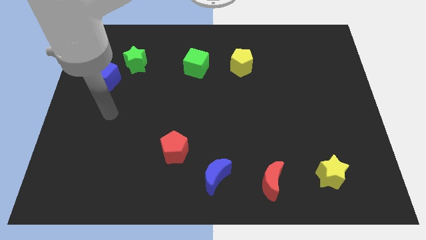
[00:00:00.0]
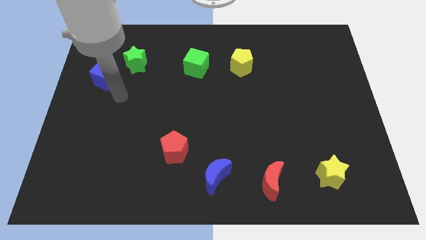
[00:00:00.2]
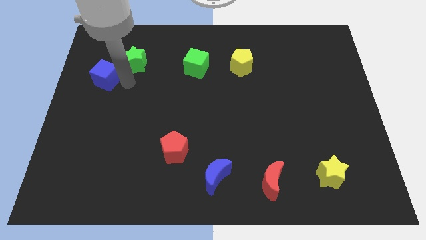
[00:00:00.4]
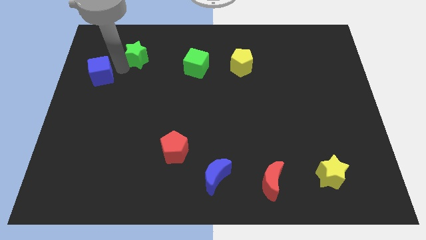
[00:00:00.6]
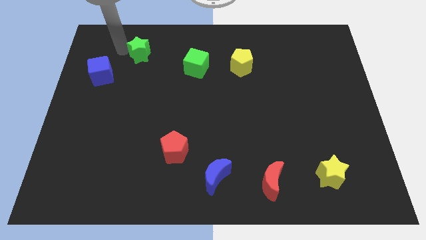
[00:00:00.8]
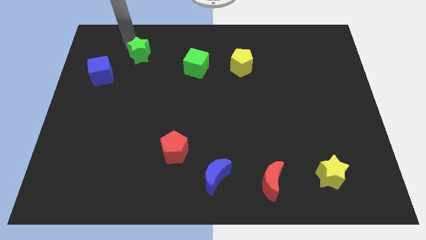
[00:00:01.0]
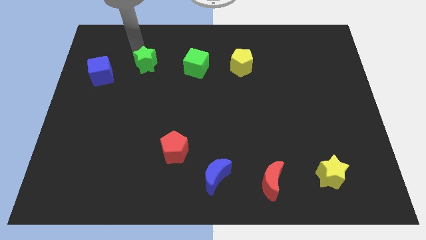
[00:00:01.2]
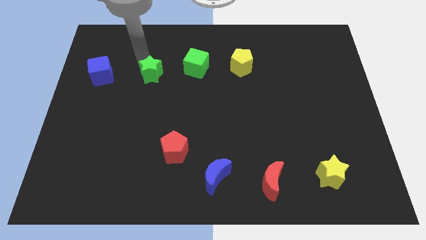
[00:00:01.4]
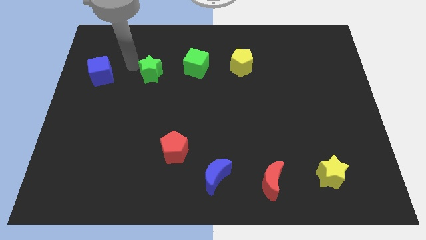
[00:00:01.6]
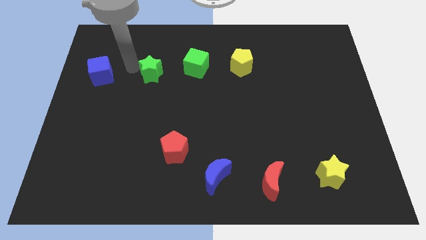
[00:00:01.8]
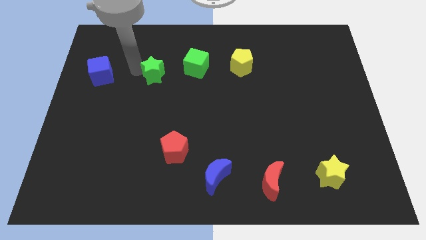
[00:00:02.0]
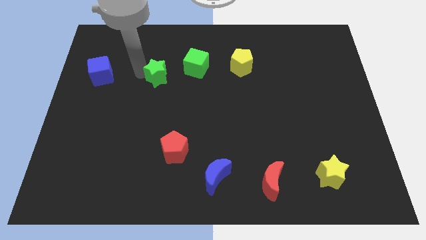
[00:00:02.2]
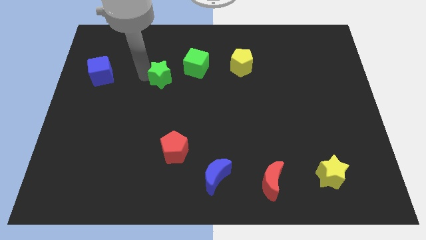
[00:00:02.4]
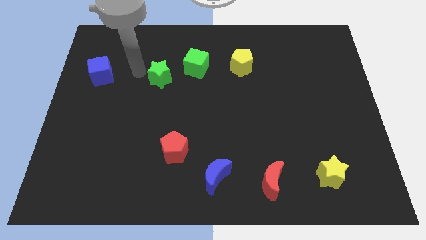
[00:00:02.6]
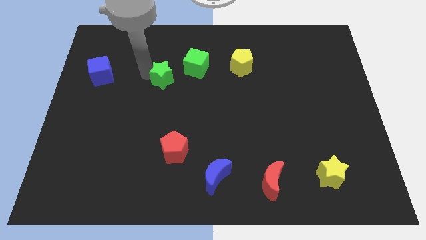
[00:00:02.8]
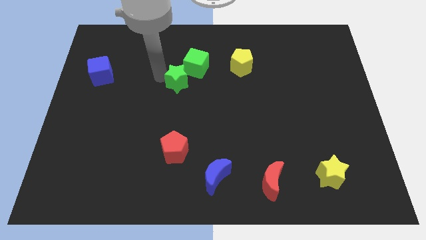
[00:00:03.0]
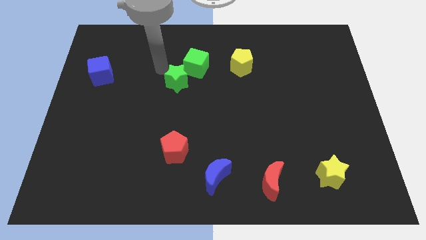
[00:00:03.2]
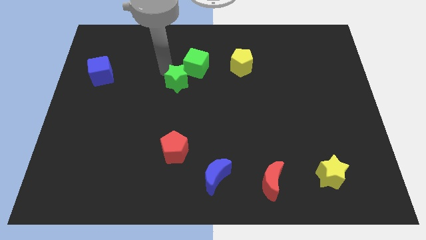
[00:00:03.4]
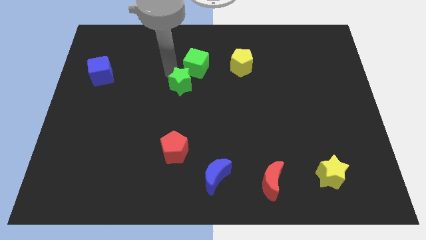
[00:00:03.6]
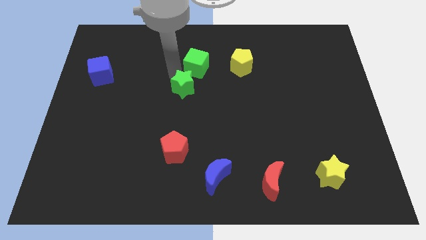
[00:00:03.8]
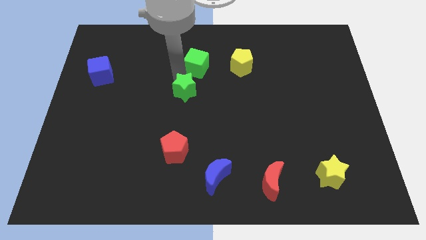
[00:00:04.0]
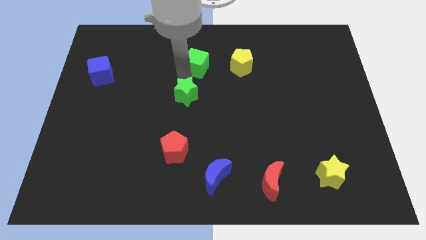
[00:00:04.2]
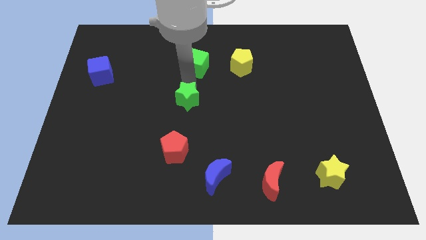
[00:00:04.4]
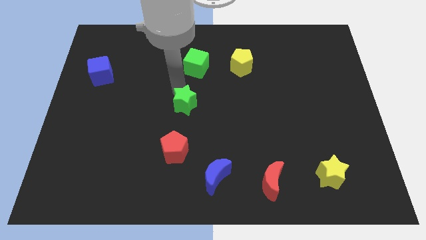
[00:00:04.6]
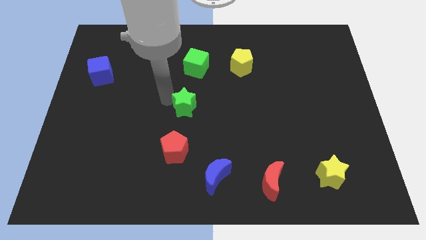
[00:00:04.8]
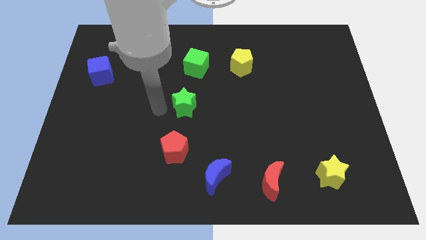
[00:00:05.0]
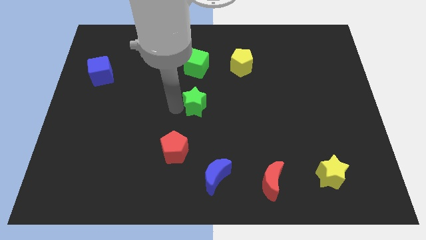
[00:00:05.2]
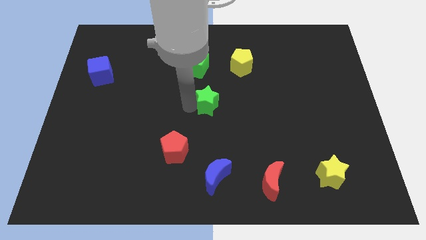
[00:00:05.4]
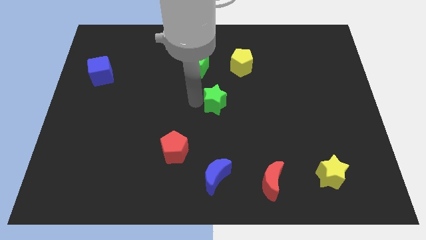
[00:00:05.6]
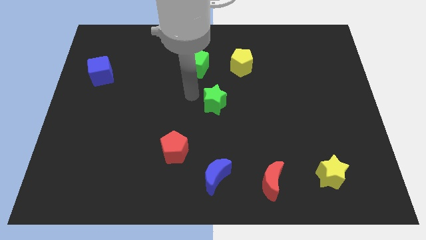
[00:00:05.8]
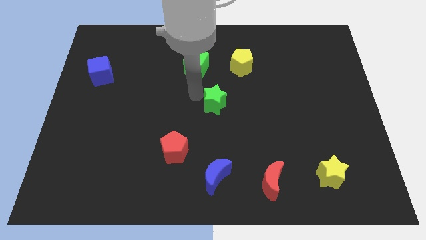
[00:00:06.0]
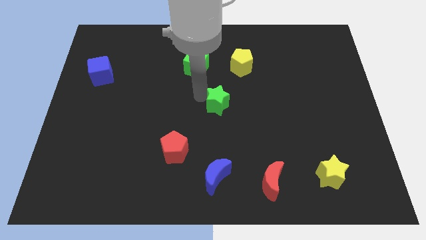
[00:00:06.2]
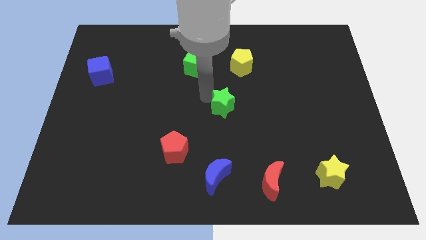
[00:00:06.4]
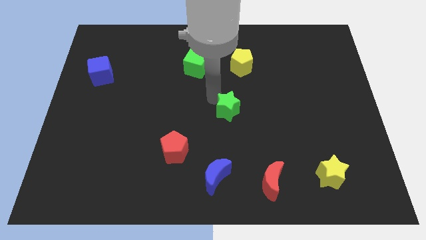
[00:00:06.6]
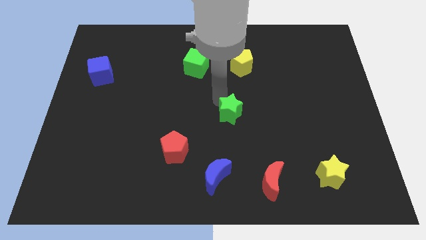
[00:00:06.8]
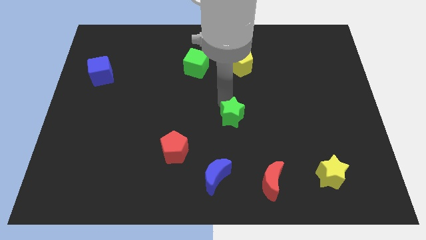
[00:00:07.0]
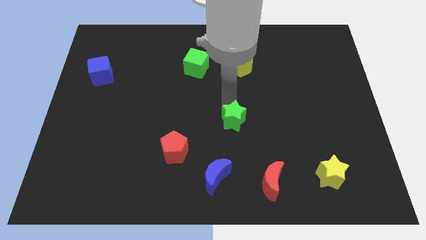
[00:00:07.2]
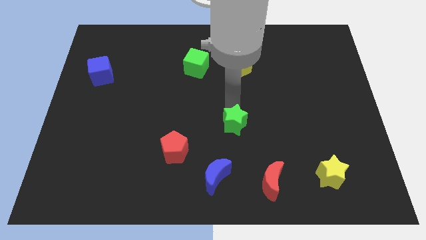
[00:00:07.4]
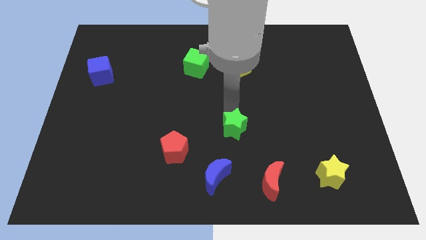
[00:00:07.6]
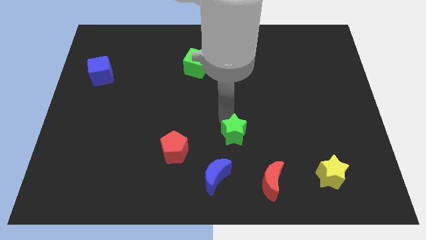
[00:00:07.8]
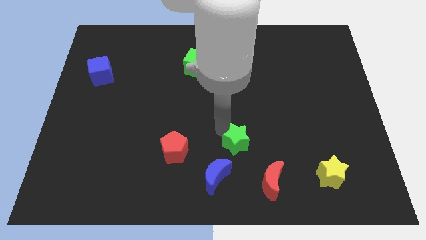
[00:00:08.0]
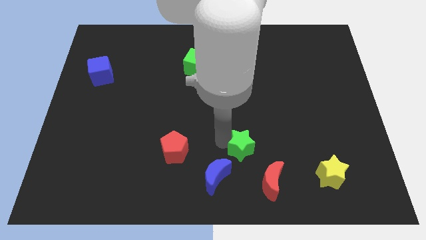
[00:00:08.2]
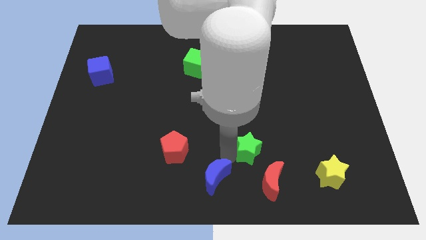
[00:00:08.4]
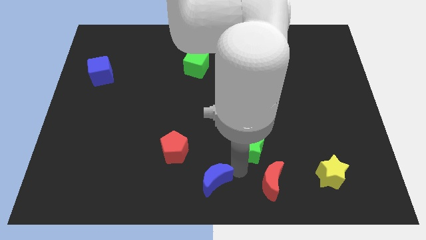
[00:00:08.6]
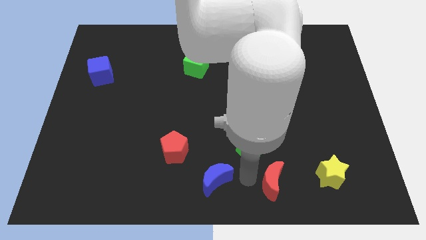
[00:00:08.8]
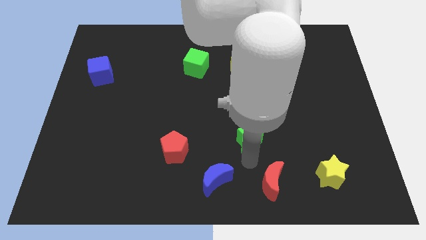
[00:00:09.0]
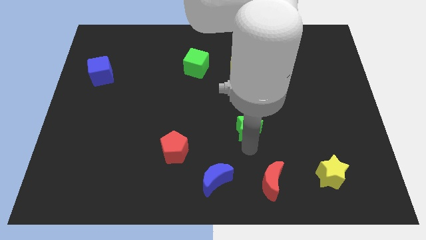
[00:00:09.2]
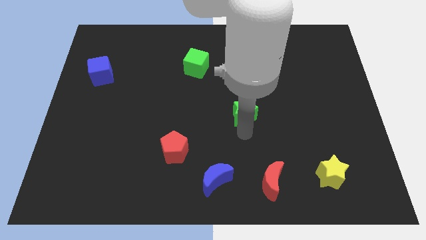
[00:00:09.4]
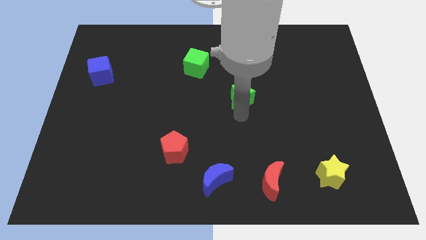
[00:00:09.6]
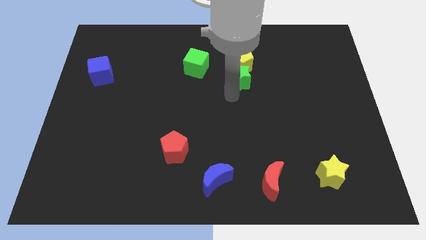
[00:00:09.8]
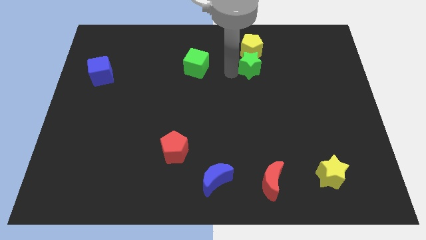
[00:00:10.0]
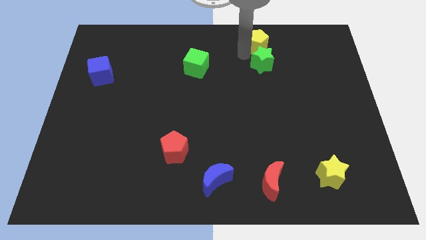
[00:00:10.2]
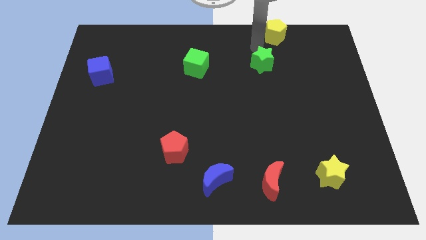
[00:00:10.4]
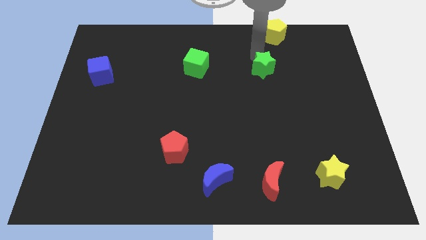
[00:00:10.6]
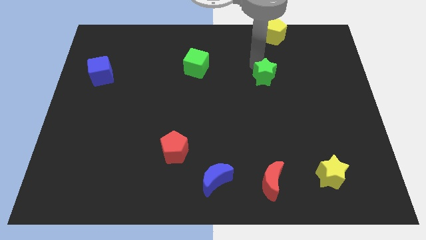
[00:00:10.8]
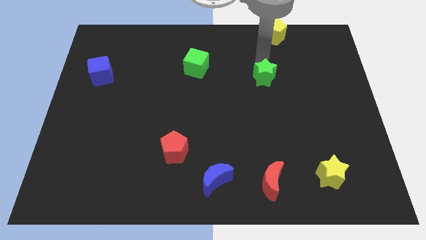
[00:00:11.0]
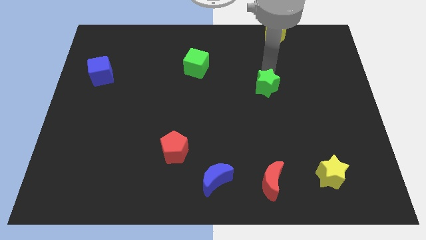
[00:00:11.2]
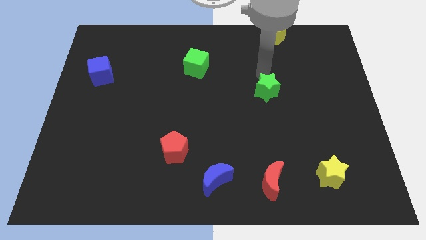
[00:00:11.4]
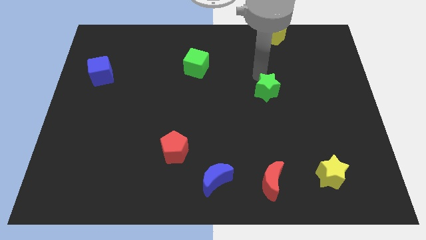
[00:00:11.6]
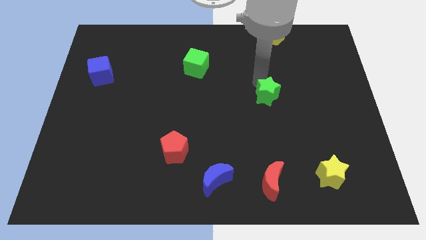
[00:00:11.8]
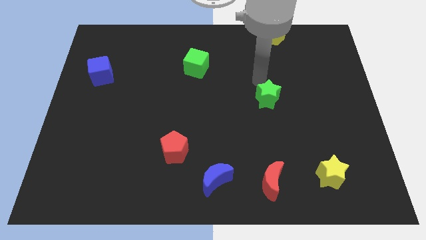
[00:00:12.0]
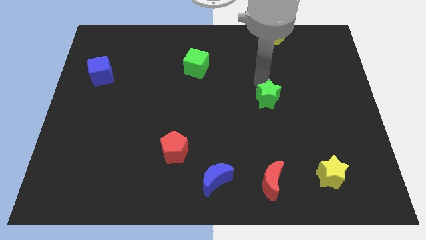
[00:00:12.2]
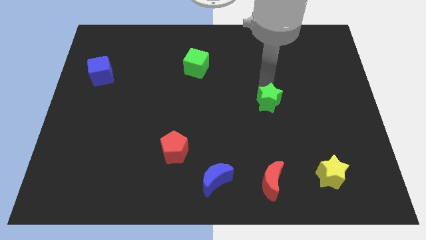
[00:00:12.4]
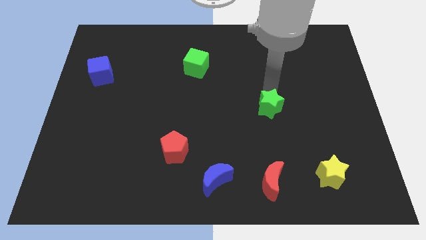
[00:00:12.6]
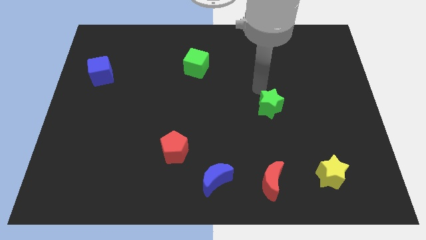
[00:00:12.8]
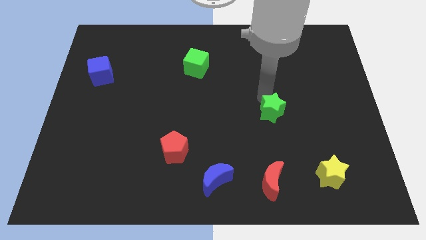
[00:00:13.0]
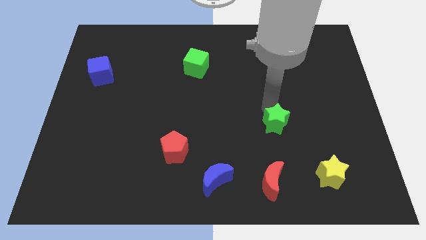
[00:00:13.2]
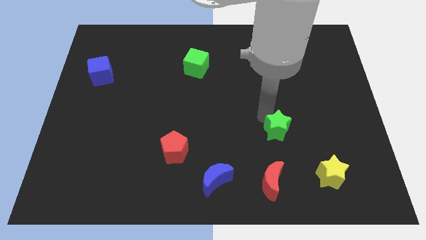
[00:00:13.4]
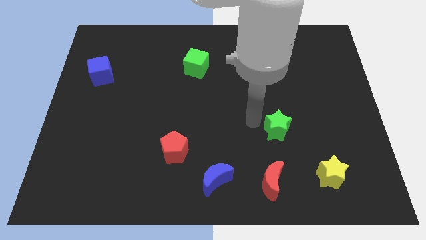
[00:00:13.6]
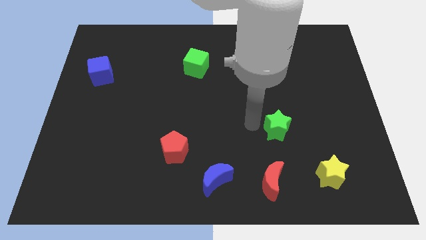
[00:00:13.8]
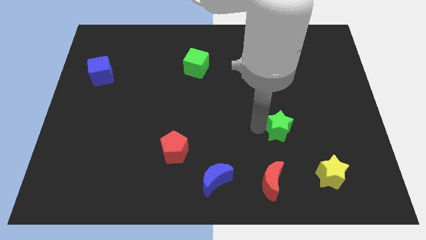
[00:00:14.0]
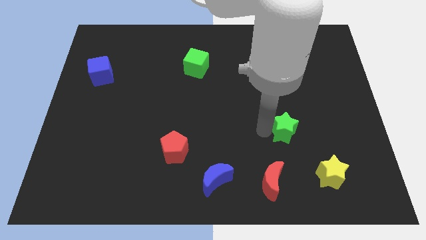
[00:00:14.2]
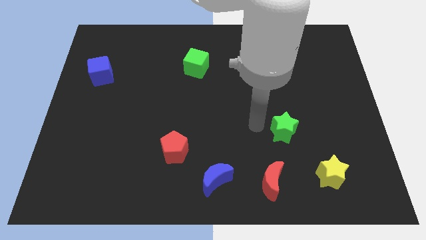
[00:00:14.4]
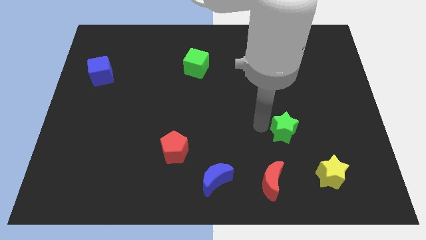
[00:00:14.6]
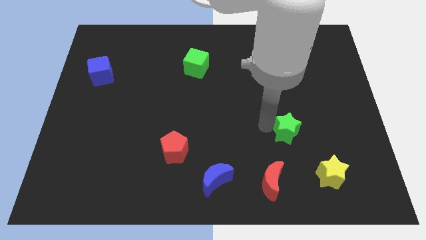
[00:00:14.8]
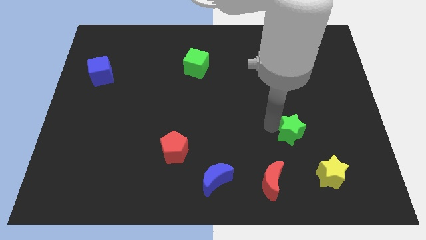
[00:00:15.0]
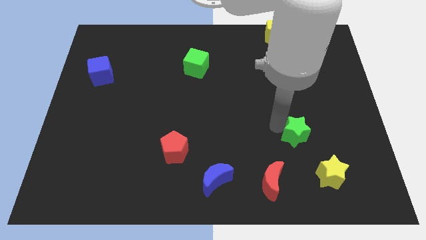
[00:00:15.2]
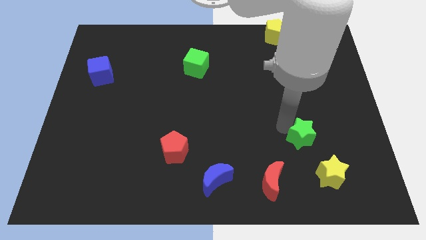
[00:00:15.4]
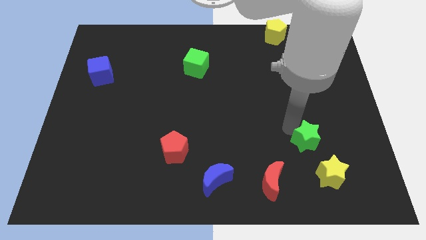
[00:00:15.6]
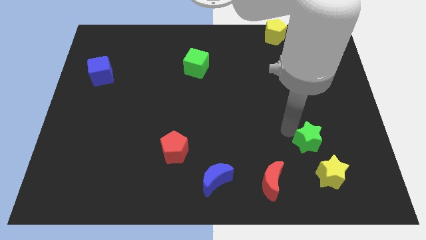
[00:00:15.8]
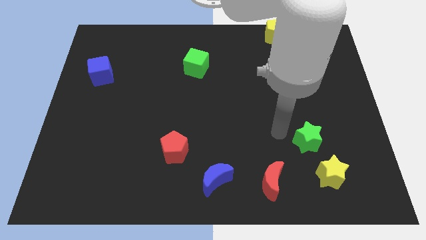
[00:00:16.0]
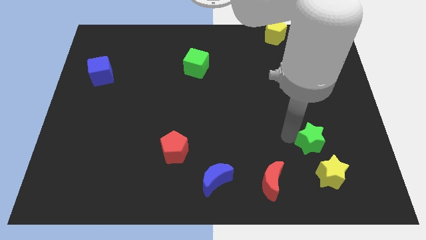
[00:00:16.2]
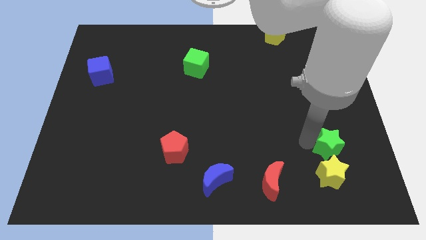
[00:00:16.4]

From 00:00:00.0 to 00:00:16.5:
put the green star to the top right side of the yellow star
